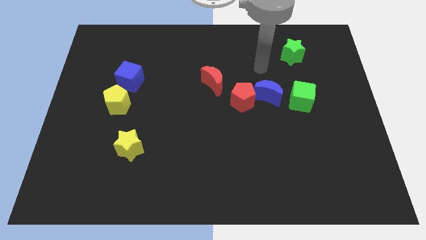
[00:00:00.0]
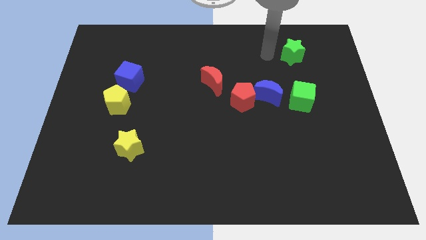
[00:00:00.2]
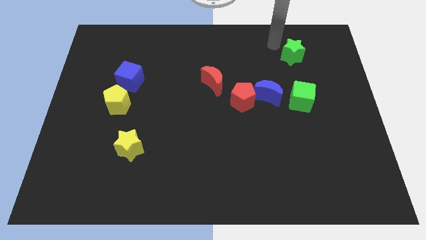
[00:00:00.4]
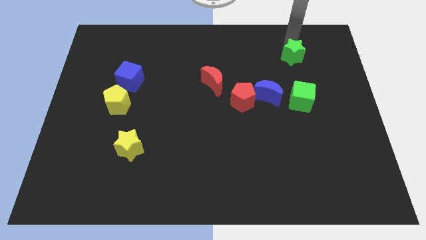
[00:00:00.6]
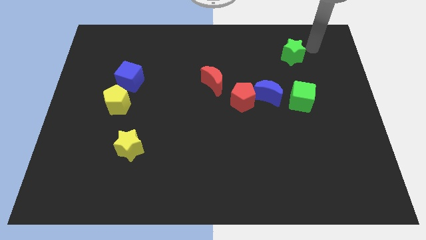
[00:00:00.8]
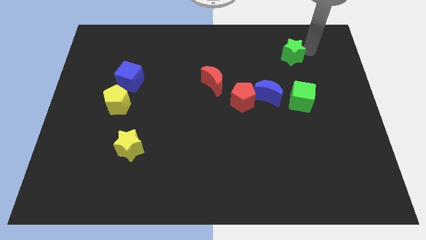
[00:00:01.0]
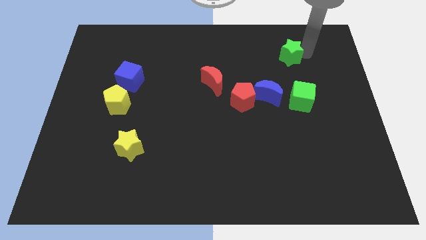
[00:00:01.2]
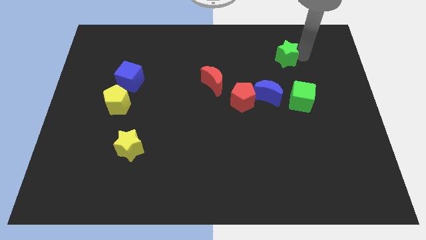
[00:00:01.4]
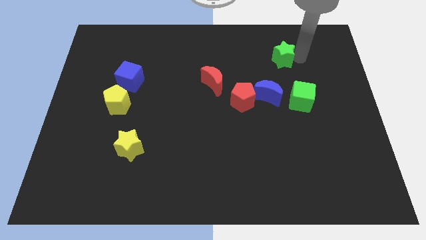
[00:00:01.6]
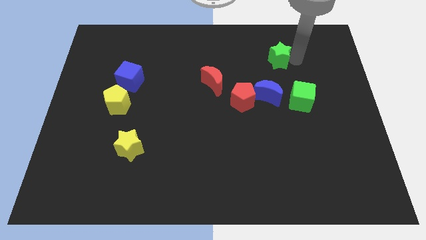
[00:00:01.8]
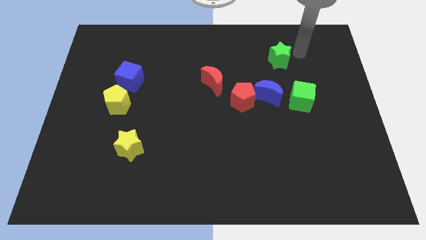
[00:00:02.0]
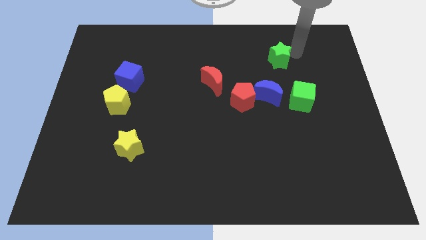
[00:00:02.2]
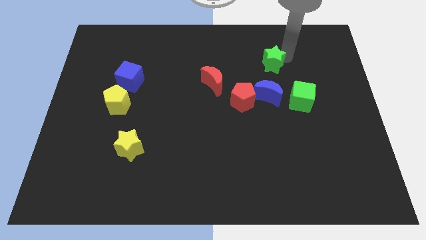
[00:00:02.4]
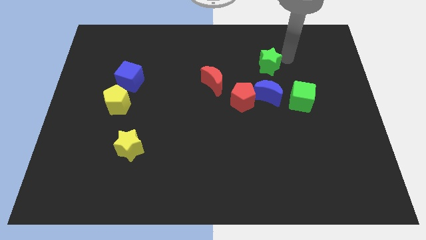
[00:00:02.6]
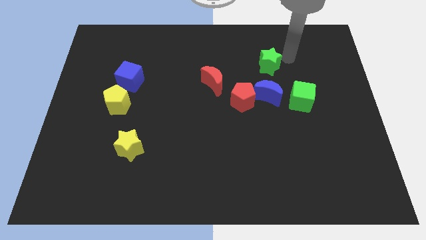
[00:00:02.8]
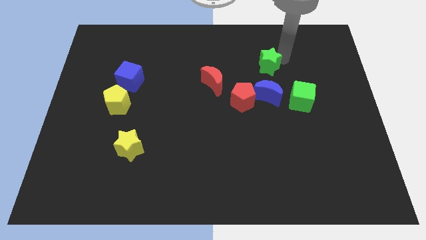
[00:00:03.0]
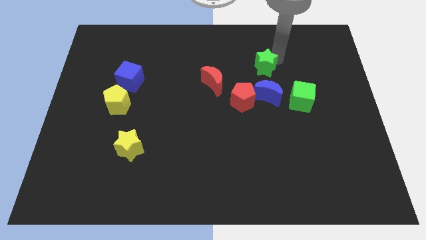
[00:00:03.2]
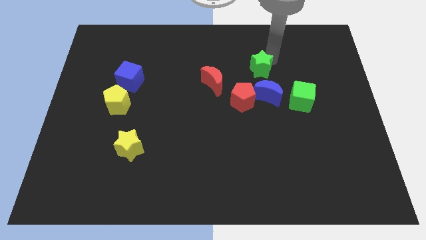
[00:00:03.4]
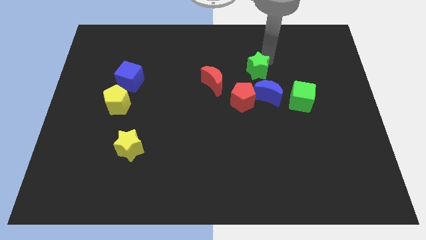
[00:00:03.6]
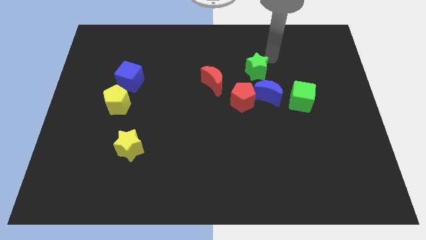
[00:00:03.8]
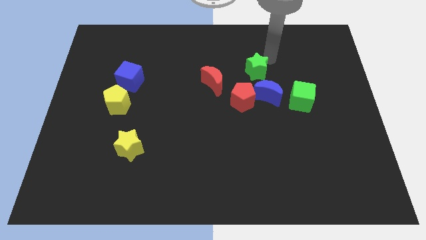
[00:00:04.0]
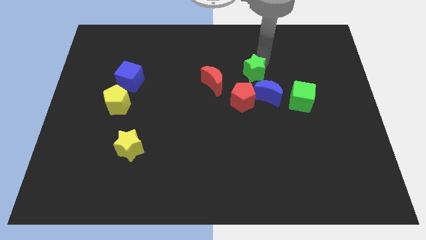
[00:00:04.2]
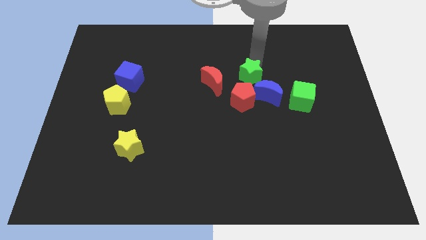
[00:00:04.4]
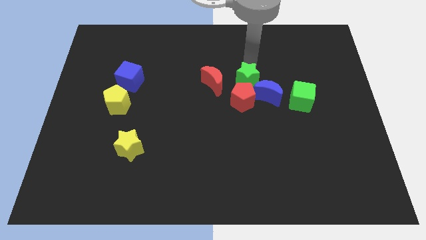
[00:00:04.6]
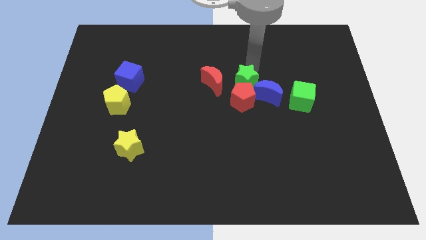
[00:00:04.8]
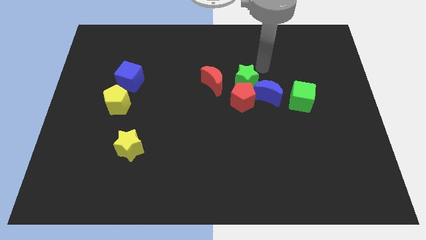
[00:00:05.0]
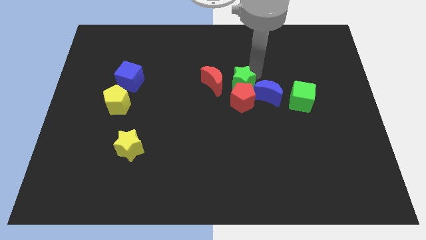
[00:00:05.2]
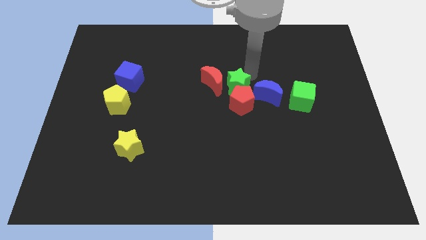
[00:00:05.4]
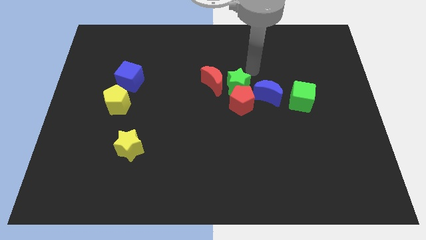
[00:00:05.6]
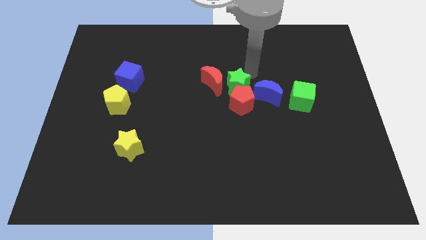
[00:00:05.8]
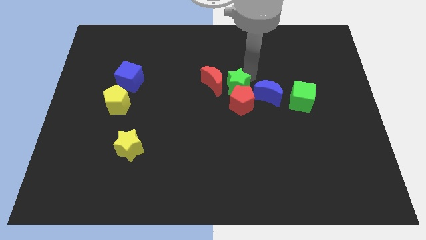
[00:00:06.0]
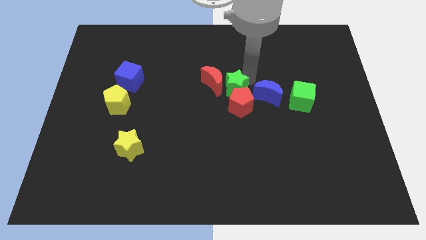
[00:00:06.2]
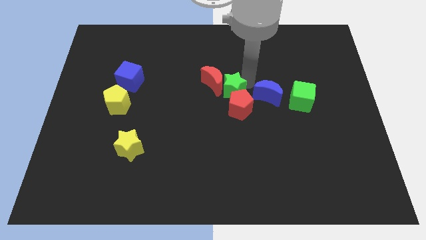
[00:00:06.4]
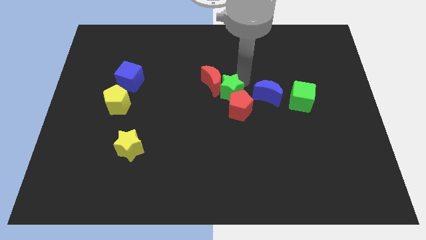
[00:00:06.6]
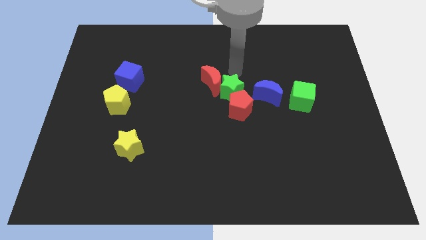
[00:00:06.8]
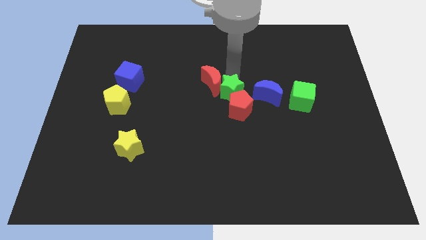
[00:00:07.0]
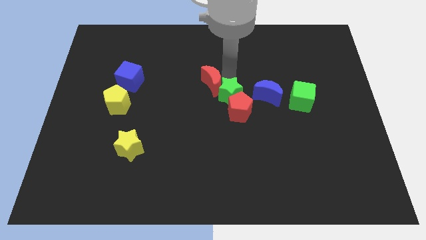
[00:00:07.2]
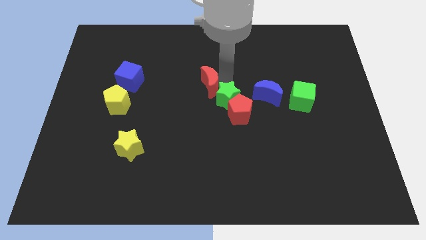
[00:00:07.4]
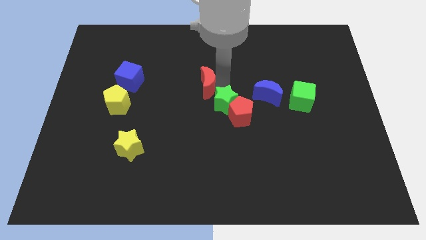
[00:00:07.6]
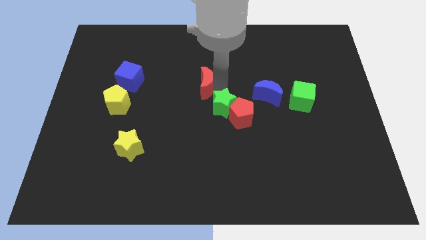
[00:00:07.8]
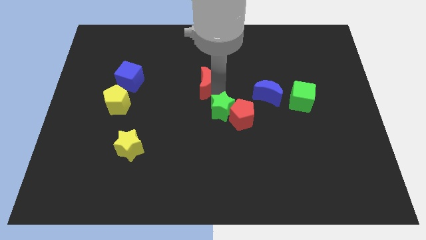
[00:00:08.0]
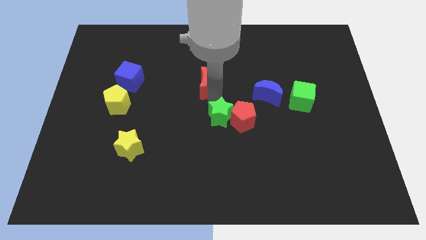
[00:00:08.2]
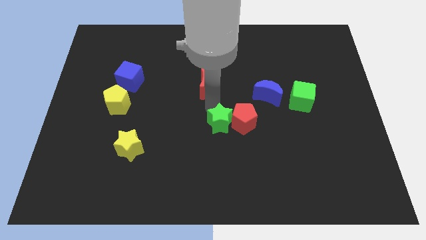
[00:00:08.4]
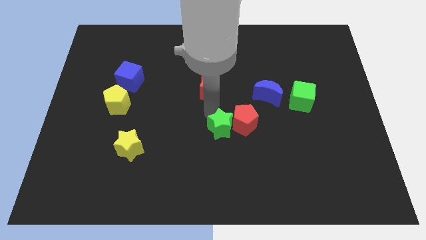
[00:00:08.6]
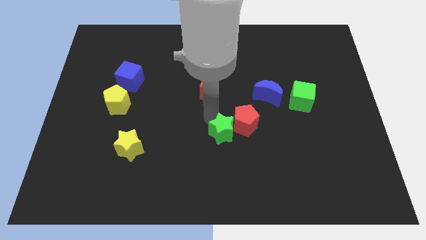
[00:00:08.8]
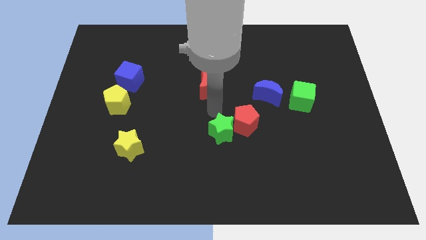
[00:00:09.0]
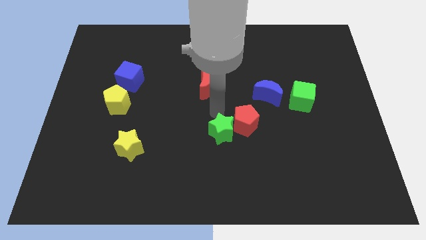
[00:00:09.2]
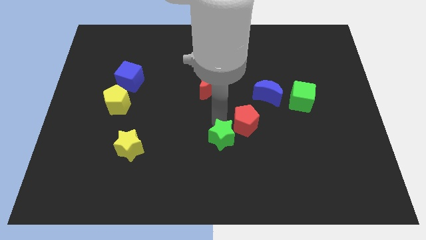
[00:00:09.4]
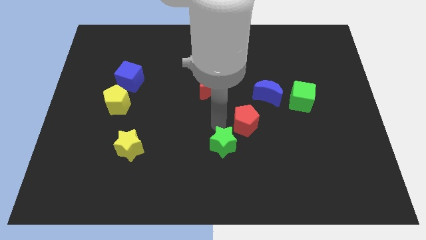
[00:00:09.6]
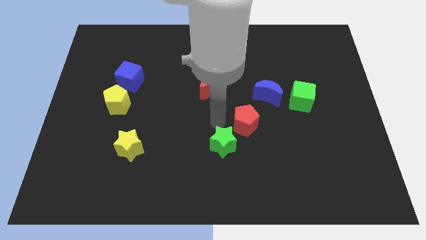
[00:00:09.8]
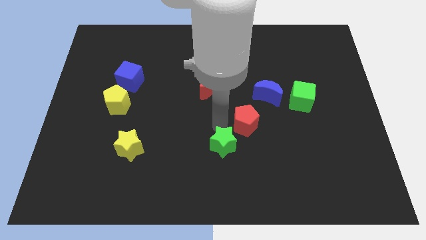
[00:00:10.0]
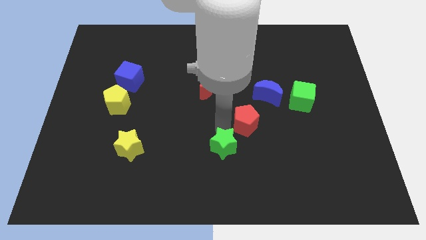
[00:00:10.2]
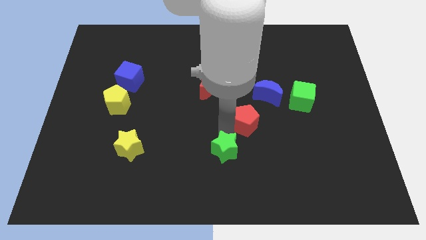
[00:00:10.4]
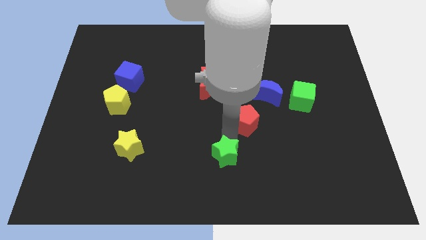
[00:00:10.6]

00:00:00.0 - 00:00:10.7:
slide the green star to the bottom

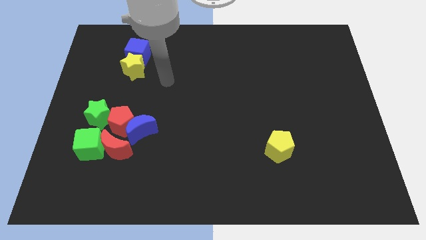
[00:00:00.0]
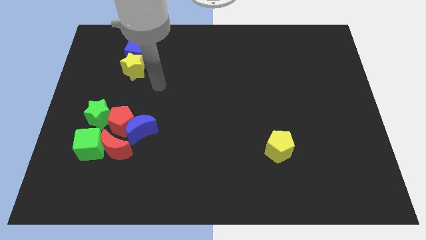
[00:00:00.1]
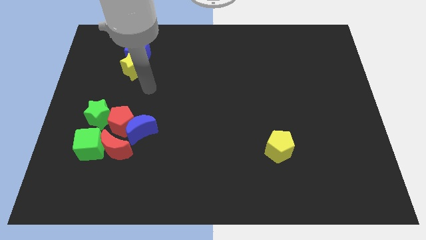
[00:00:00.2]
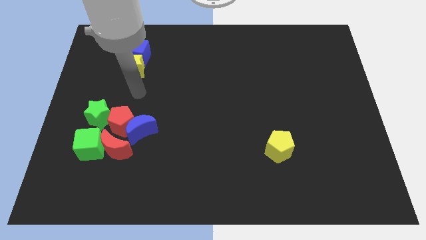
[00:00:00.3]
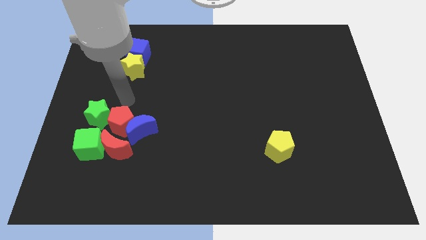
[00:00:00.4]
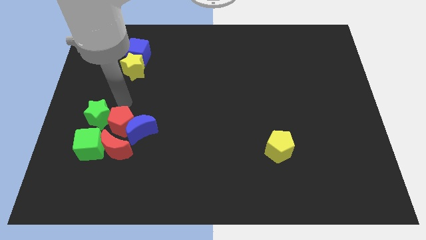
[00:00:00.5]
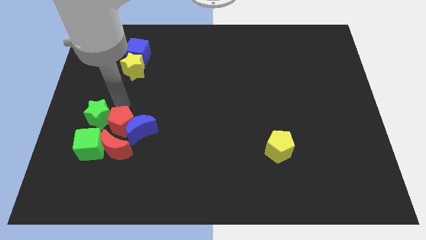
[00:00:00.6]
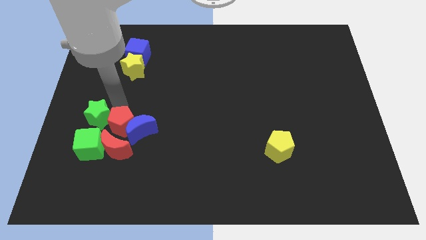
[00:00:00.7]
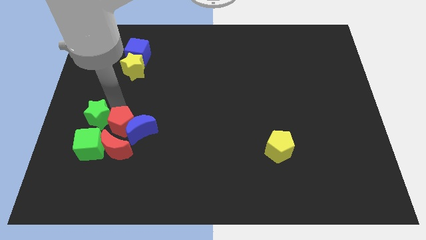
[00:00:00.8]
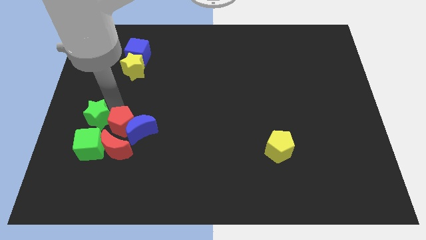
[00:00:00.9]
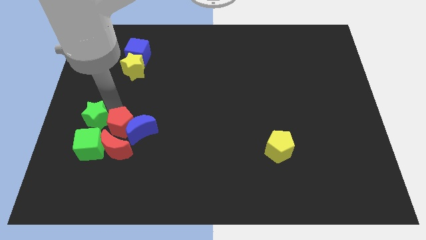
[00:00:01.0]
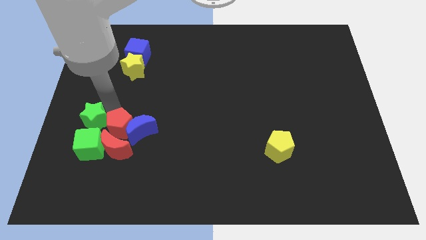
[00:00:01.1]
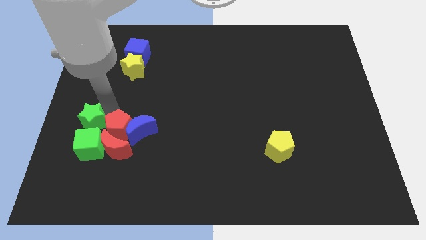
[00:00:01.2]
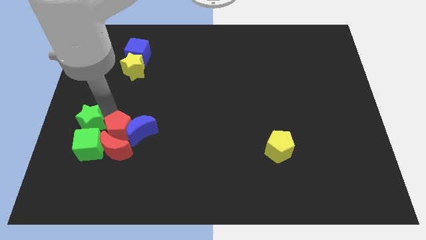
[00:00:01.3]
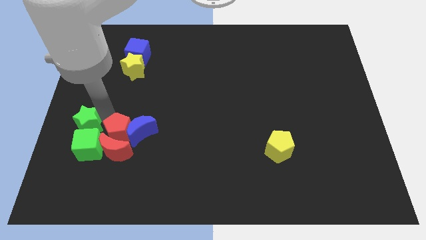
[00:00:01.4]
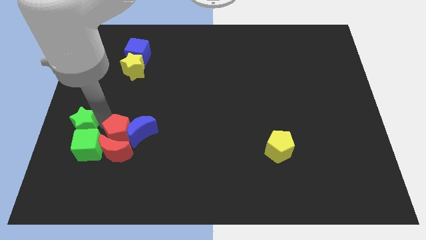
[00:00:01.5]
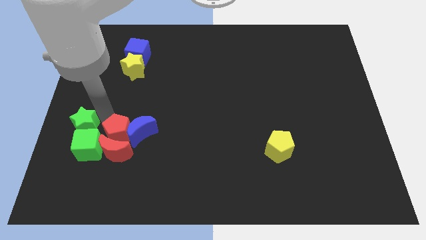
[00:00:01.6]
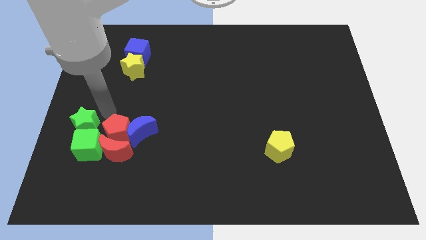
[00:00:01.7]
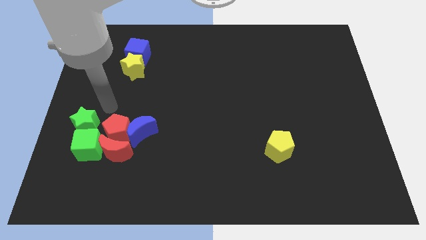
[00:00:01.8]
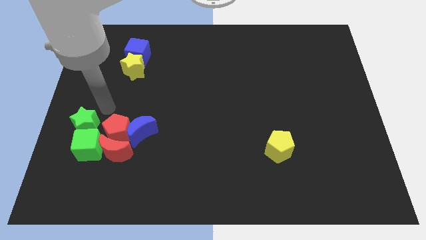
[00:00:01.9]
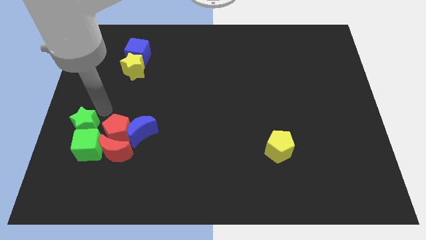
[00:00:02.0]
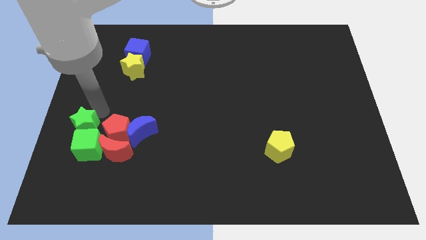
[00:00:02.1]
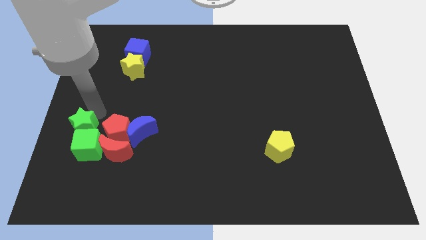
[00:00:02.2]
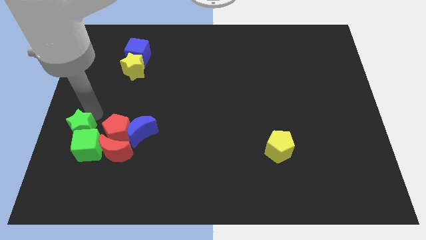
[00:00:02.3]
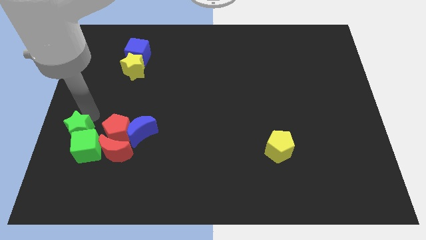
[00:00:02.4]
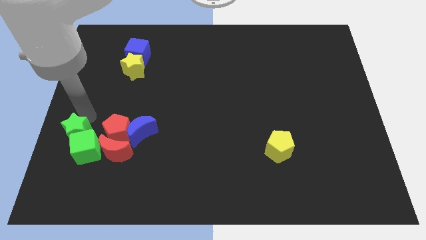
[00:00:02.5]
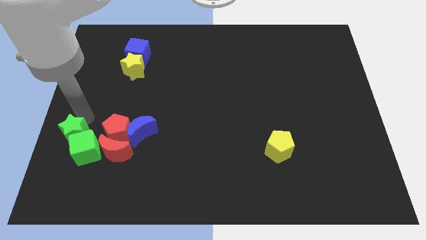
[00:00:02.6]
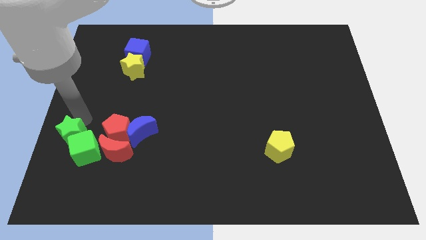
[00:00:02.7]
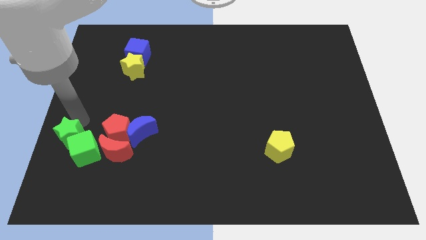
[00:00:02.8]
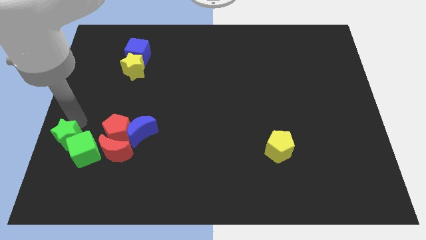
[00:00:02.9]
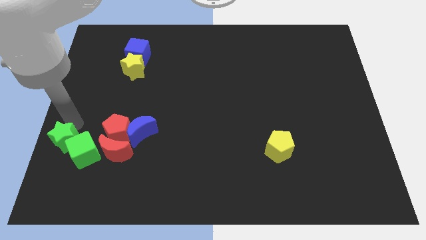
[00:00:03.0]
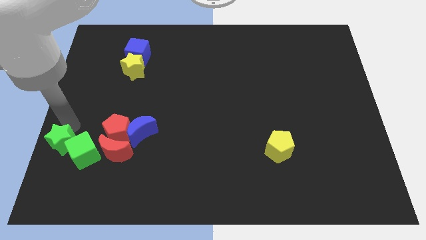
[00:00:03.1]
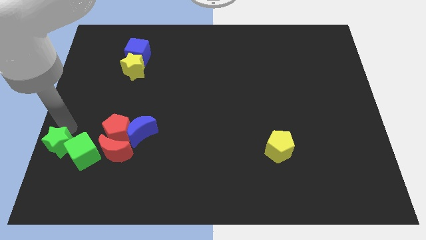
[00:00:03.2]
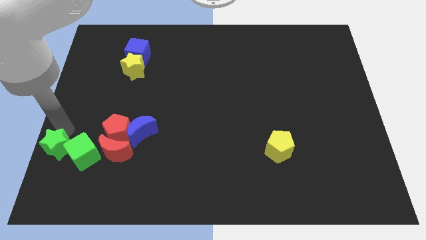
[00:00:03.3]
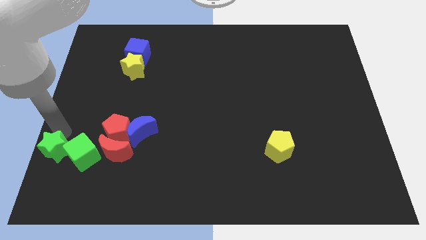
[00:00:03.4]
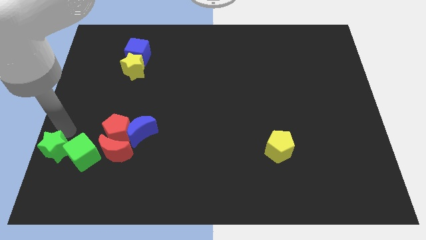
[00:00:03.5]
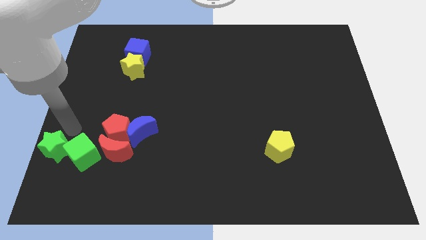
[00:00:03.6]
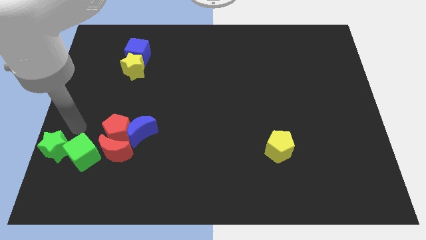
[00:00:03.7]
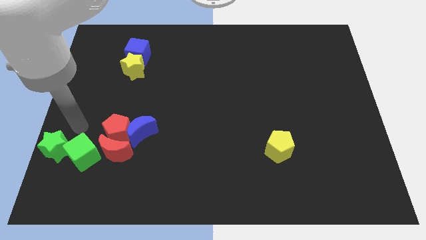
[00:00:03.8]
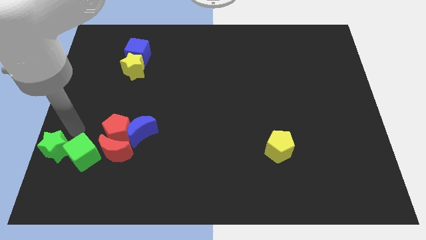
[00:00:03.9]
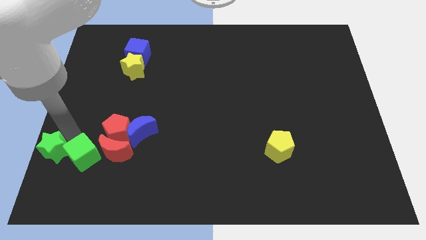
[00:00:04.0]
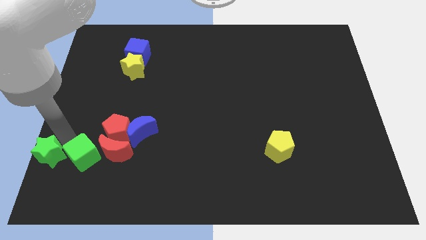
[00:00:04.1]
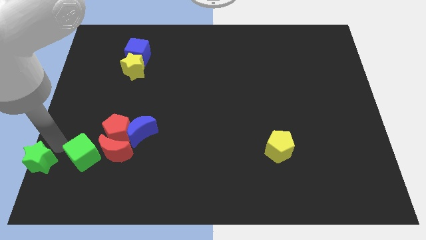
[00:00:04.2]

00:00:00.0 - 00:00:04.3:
move the green star to the bottom left corner
